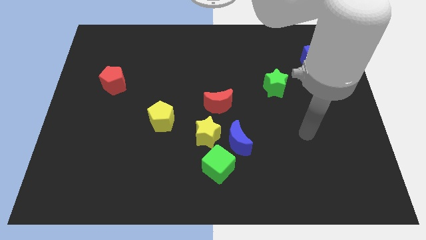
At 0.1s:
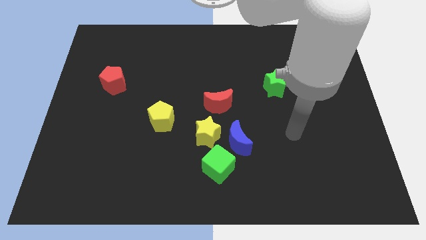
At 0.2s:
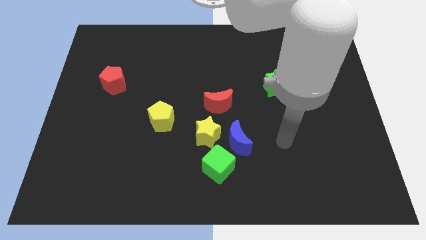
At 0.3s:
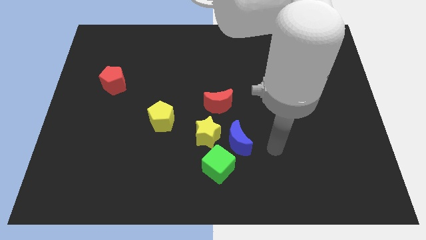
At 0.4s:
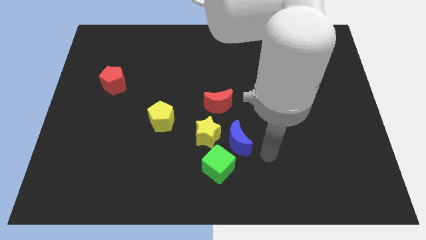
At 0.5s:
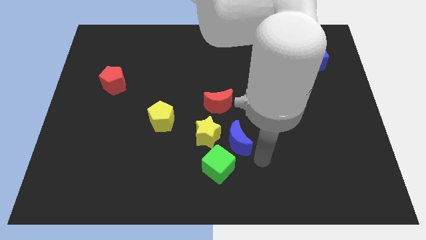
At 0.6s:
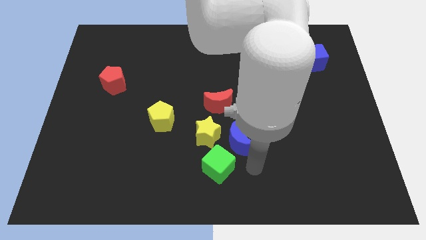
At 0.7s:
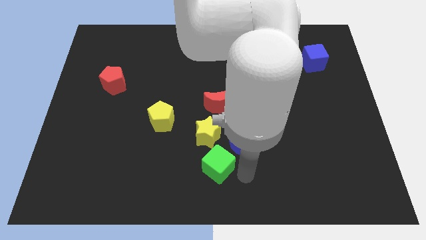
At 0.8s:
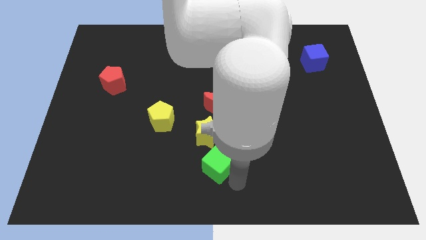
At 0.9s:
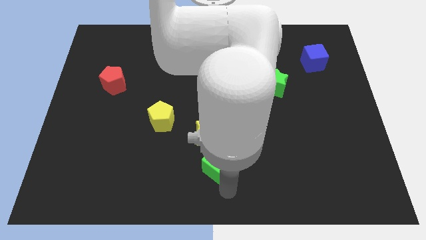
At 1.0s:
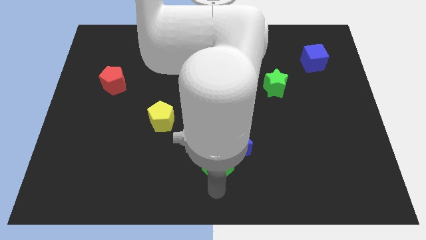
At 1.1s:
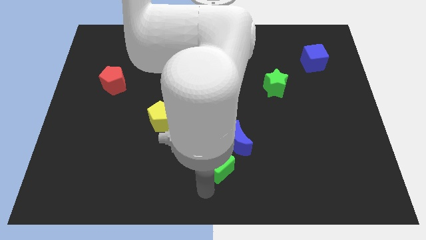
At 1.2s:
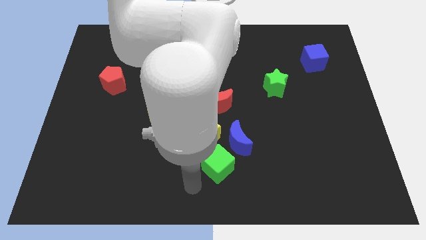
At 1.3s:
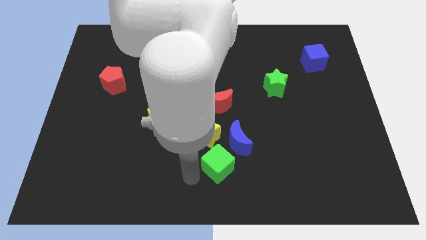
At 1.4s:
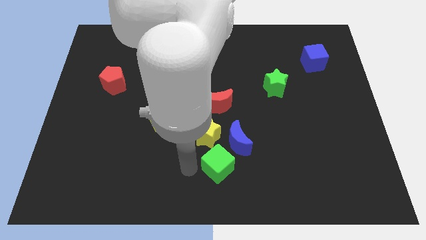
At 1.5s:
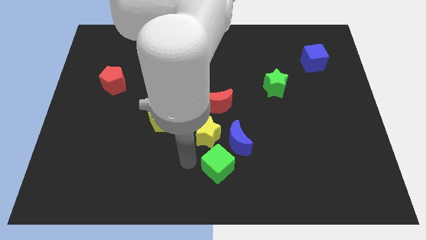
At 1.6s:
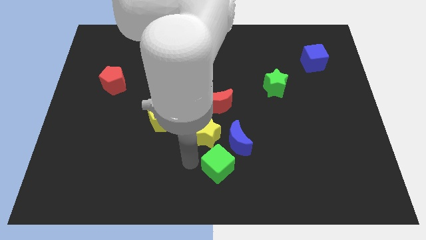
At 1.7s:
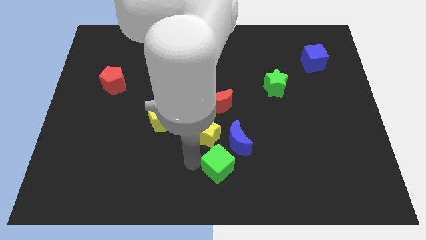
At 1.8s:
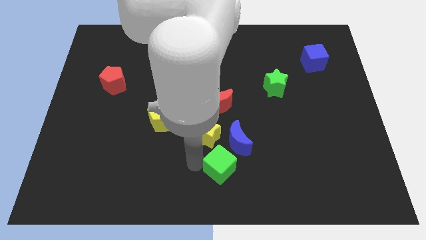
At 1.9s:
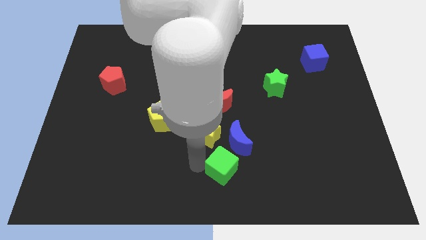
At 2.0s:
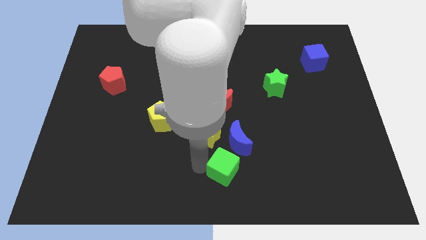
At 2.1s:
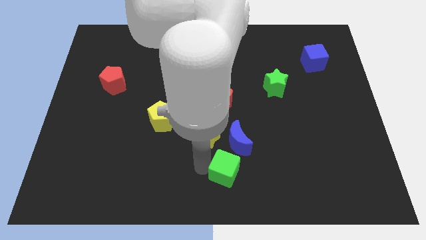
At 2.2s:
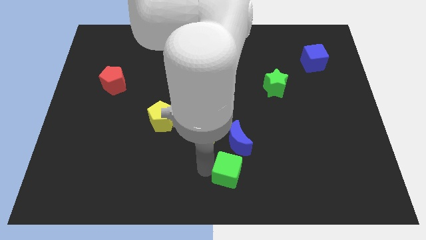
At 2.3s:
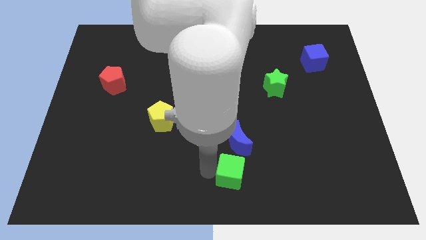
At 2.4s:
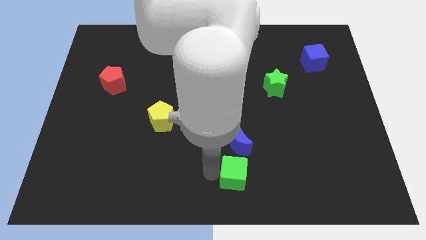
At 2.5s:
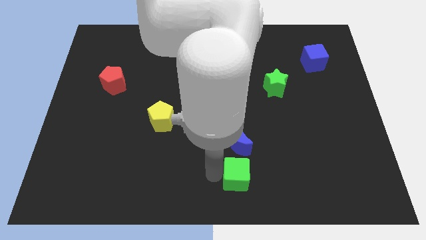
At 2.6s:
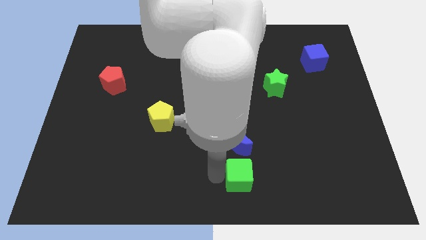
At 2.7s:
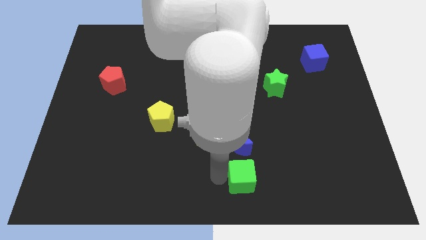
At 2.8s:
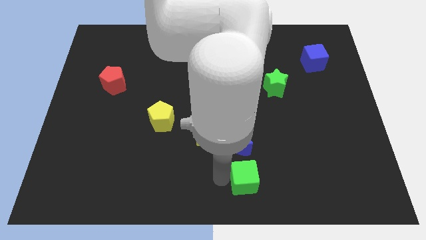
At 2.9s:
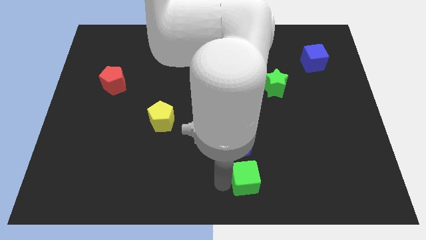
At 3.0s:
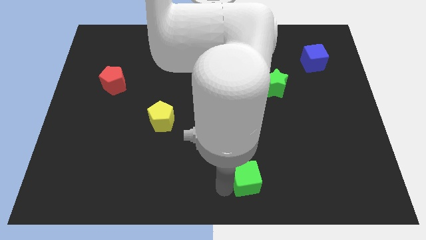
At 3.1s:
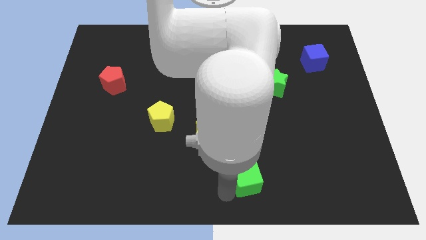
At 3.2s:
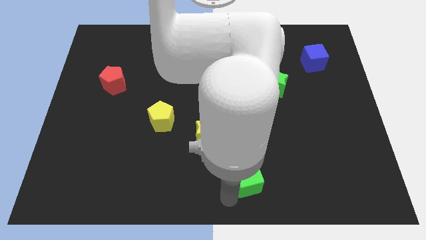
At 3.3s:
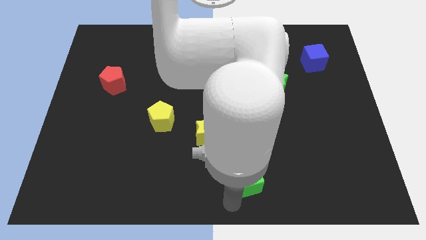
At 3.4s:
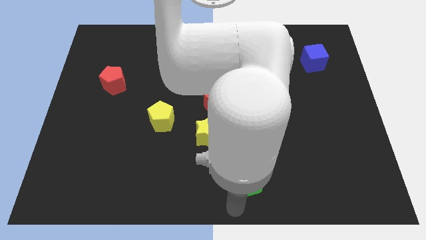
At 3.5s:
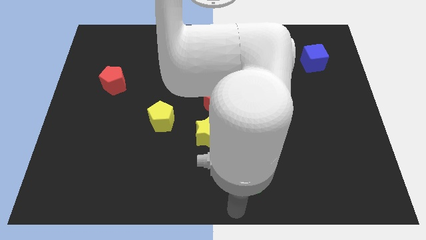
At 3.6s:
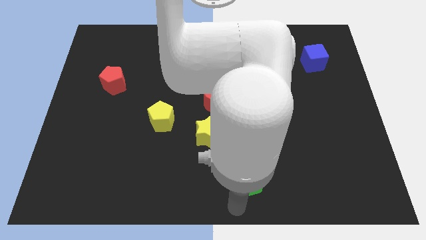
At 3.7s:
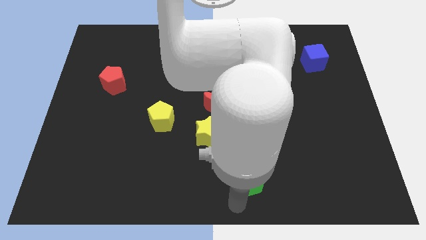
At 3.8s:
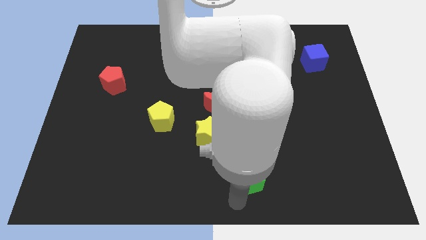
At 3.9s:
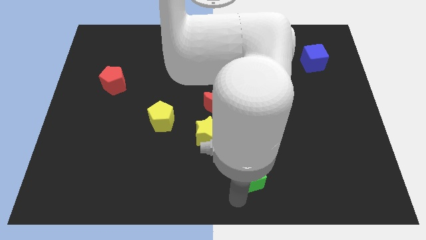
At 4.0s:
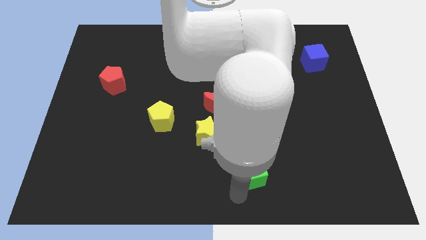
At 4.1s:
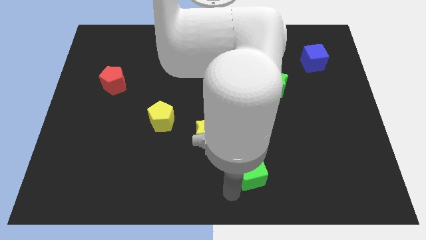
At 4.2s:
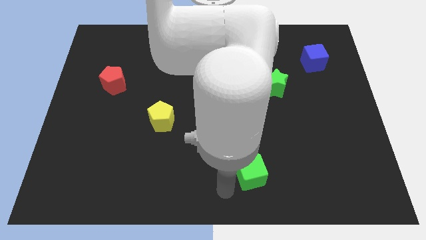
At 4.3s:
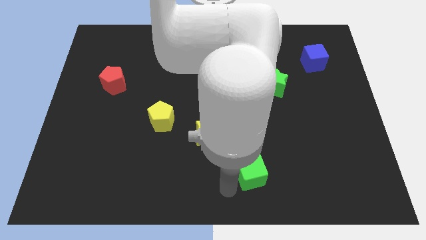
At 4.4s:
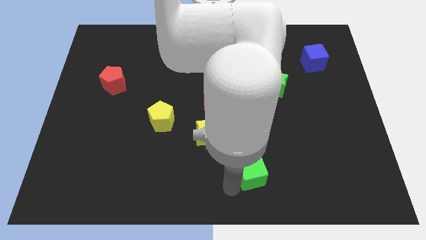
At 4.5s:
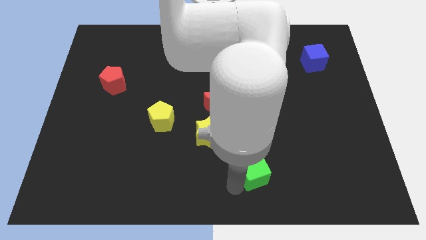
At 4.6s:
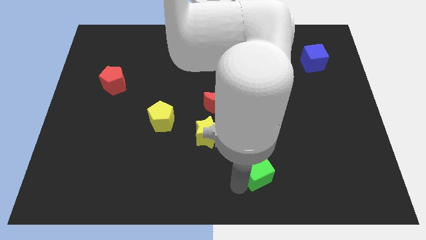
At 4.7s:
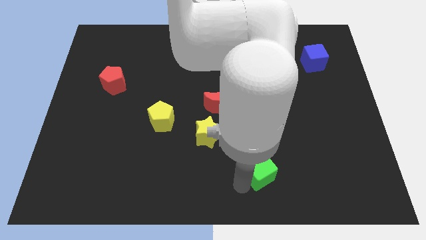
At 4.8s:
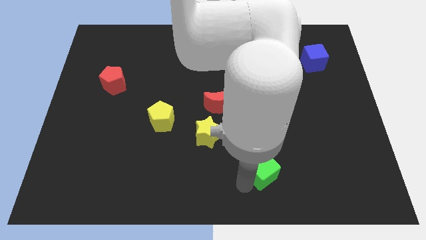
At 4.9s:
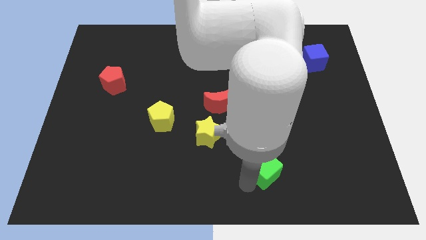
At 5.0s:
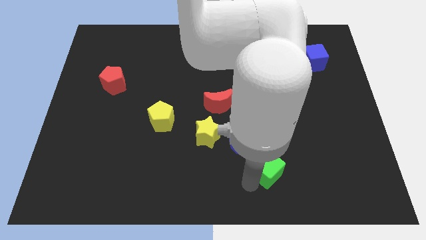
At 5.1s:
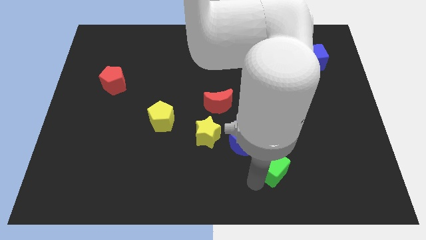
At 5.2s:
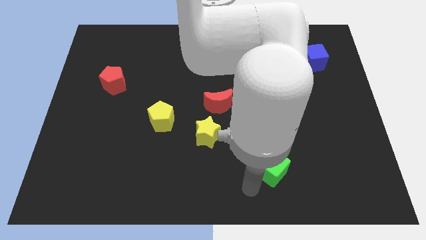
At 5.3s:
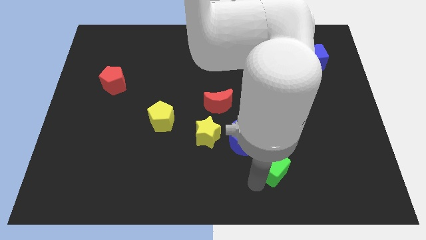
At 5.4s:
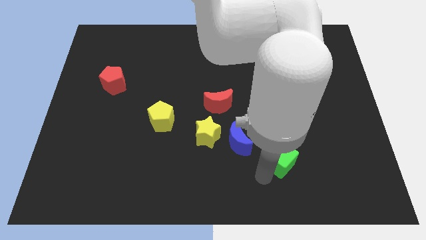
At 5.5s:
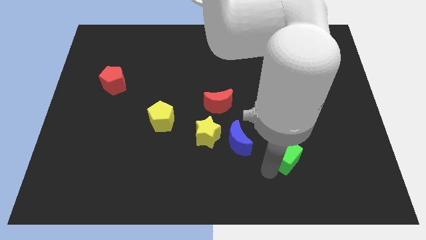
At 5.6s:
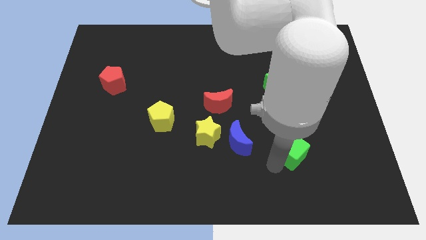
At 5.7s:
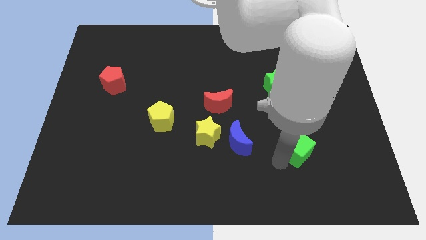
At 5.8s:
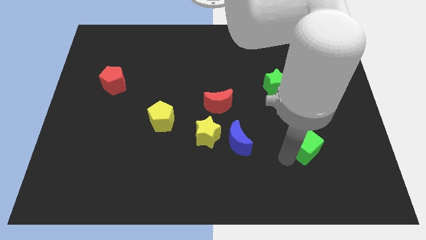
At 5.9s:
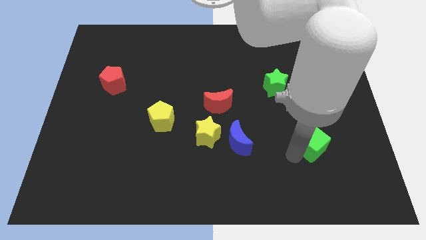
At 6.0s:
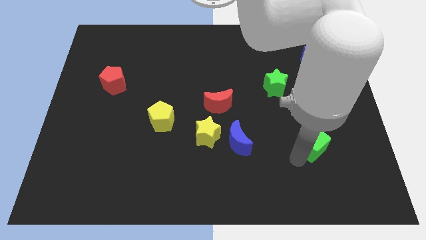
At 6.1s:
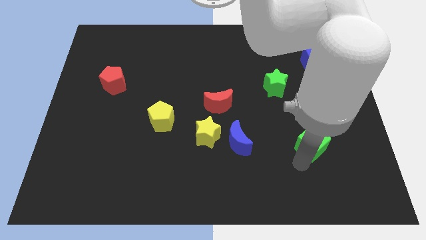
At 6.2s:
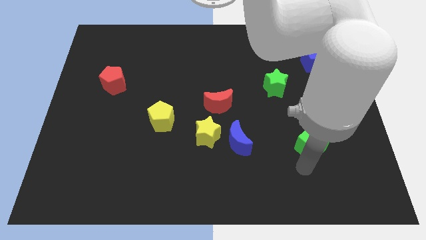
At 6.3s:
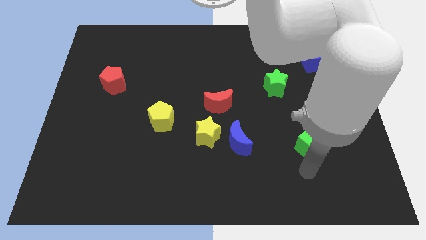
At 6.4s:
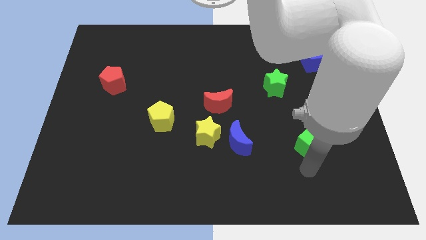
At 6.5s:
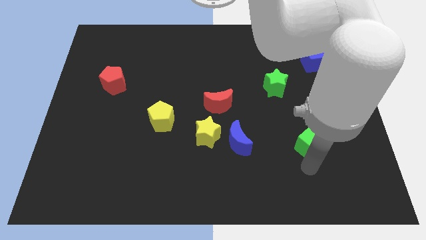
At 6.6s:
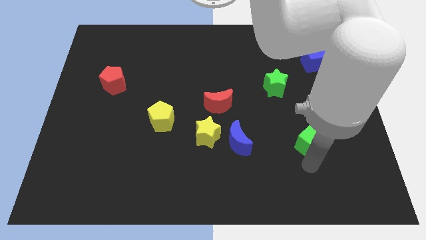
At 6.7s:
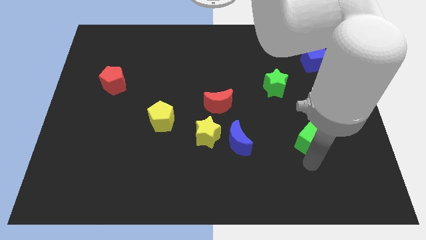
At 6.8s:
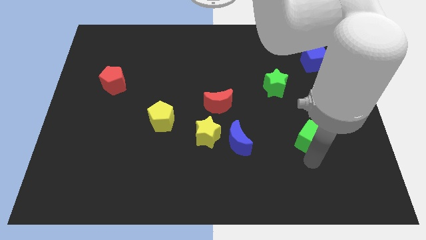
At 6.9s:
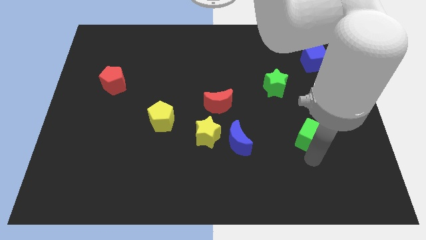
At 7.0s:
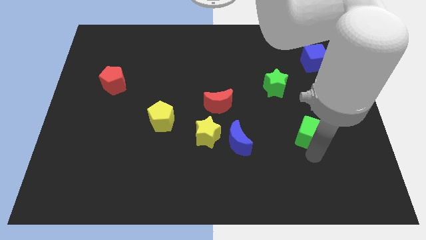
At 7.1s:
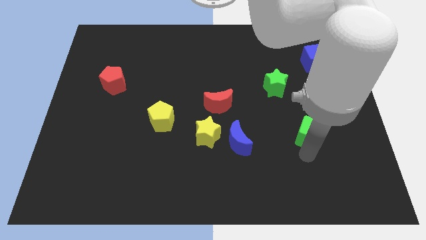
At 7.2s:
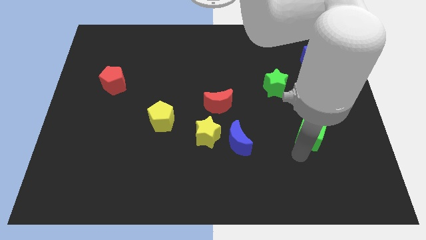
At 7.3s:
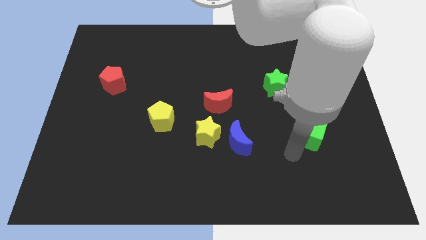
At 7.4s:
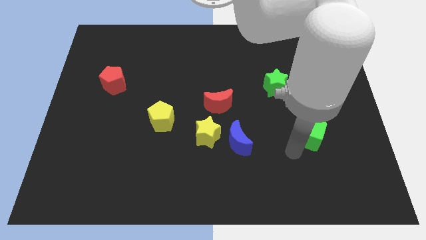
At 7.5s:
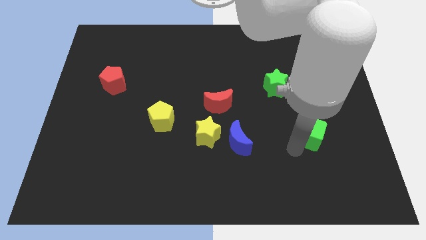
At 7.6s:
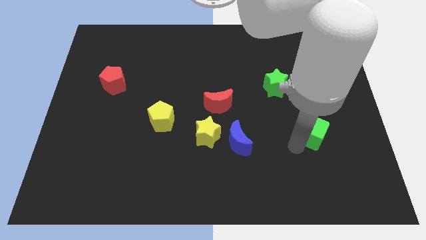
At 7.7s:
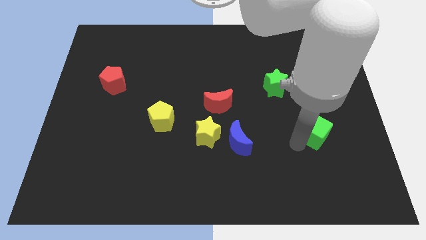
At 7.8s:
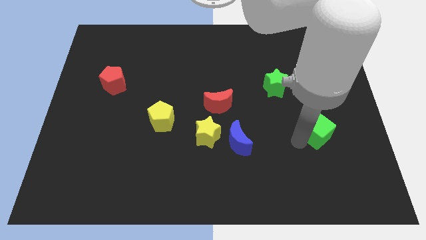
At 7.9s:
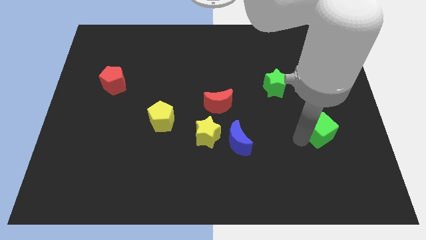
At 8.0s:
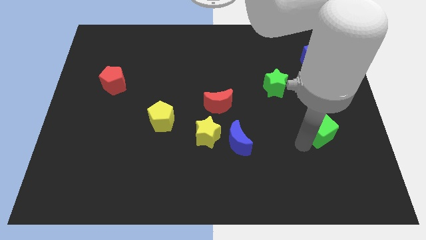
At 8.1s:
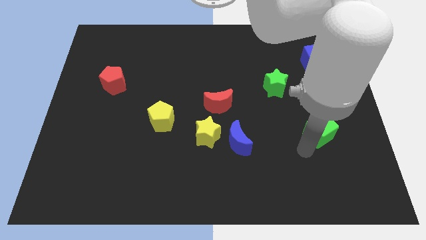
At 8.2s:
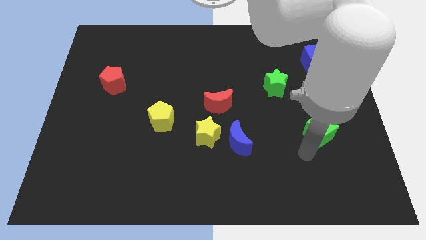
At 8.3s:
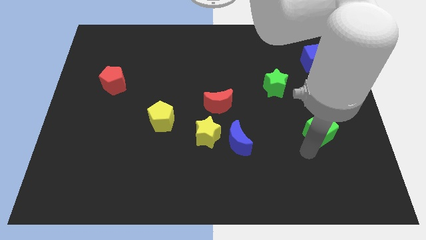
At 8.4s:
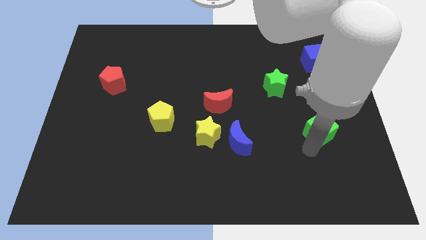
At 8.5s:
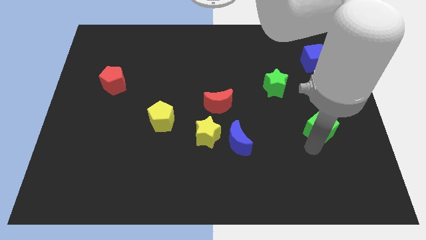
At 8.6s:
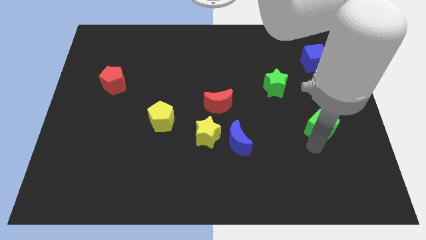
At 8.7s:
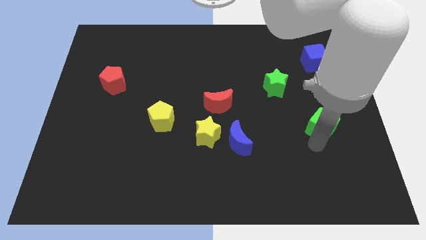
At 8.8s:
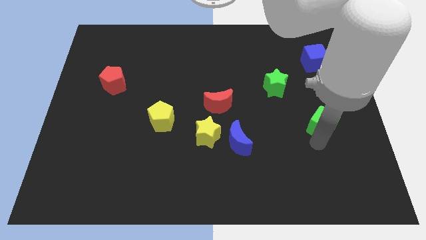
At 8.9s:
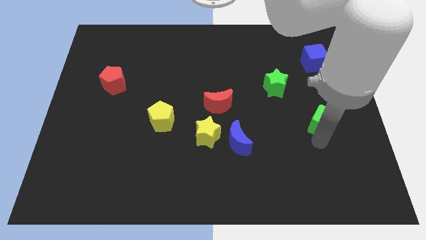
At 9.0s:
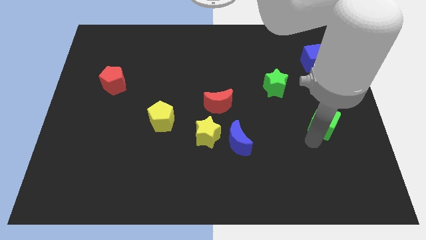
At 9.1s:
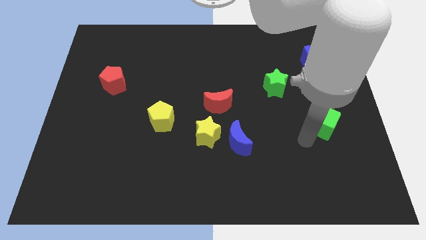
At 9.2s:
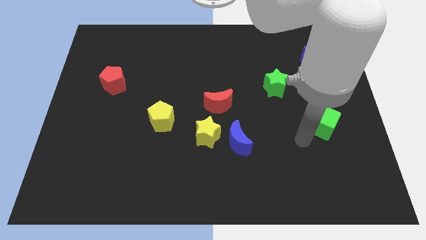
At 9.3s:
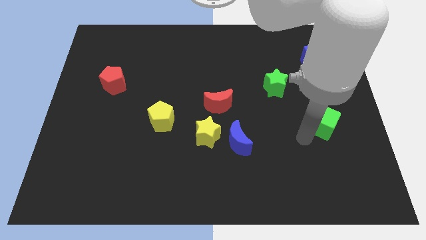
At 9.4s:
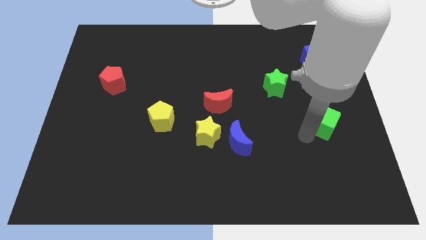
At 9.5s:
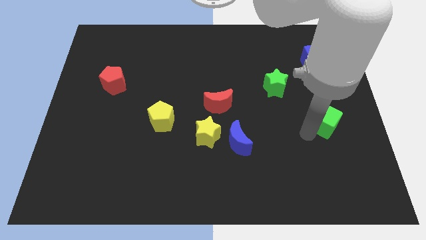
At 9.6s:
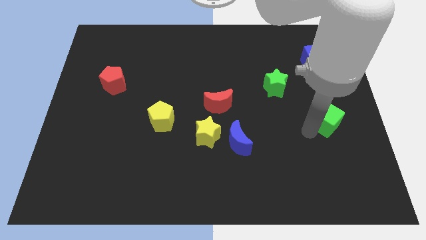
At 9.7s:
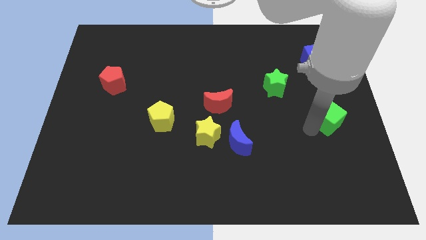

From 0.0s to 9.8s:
slide the green cube to the right side
